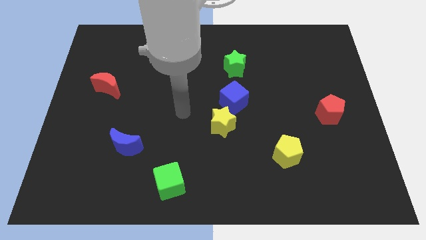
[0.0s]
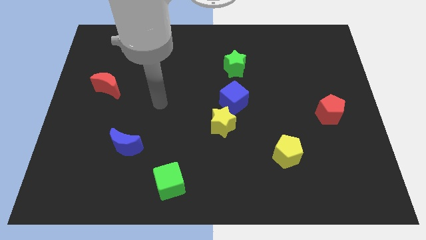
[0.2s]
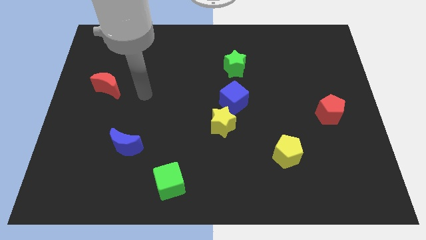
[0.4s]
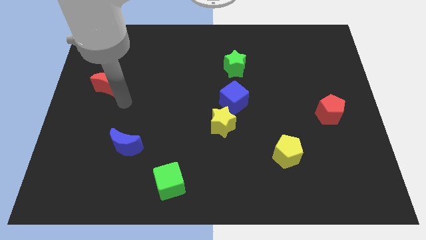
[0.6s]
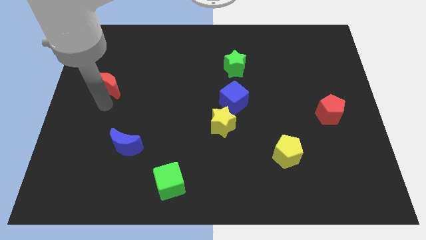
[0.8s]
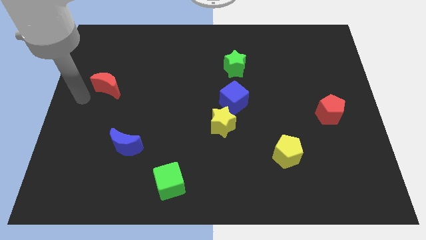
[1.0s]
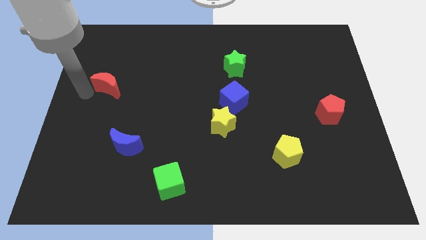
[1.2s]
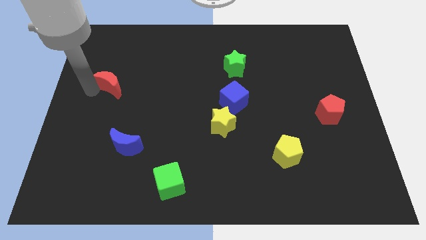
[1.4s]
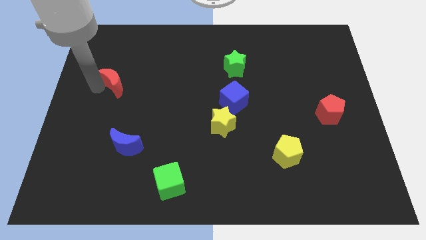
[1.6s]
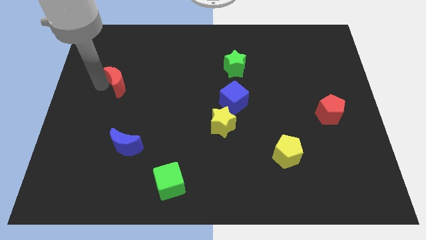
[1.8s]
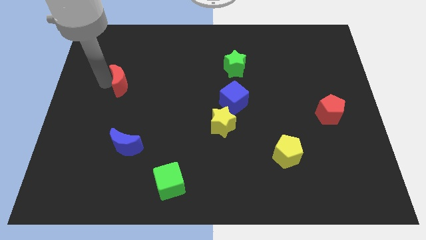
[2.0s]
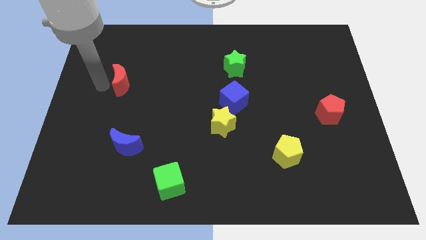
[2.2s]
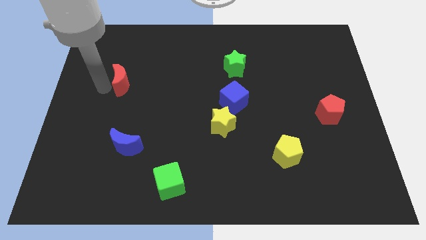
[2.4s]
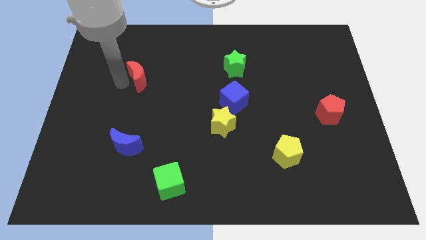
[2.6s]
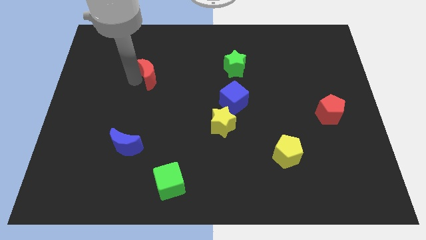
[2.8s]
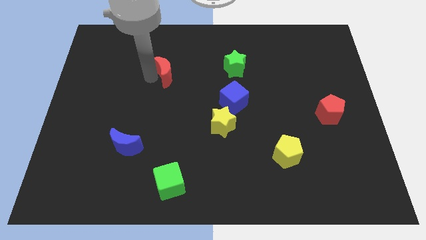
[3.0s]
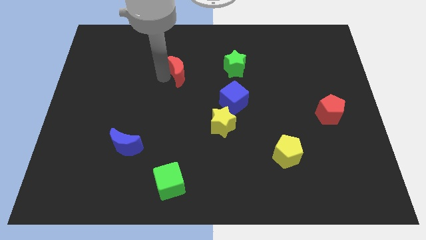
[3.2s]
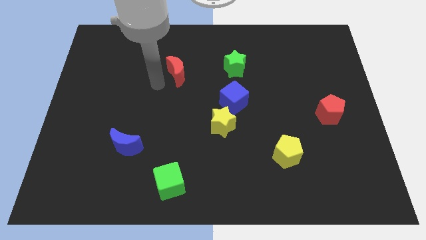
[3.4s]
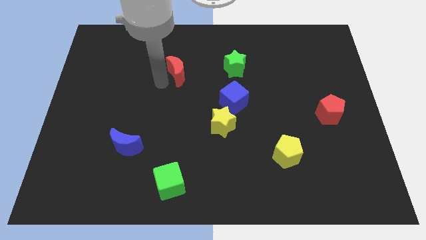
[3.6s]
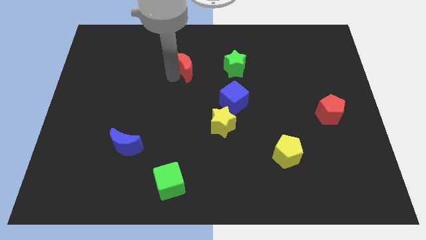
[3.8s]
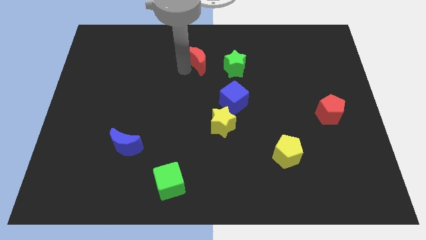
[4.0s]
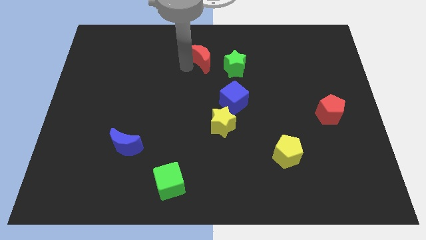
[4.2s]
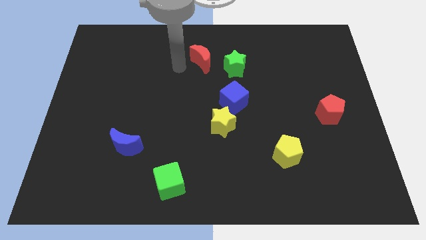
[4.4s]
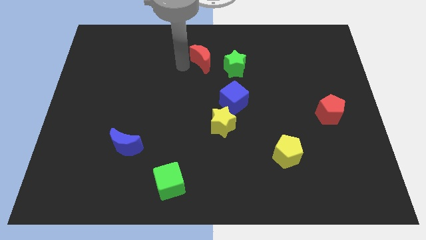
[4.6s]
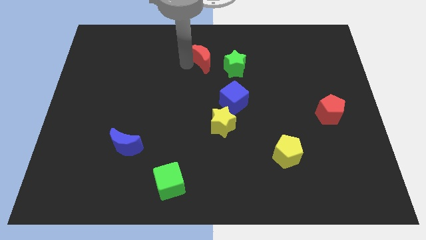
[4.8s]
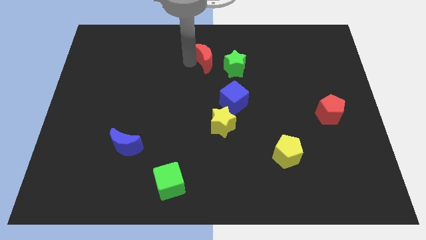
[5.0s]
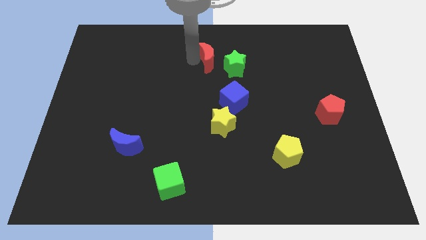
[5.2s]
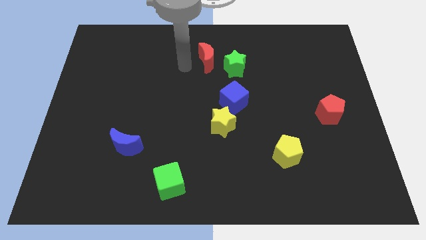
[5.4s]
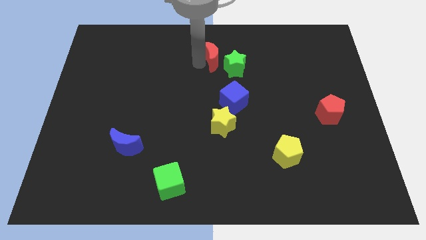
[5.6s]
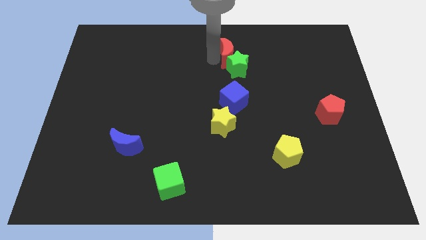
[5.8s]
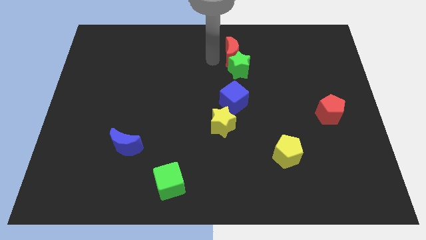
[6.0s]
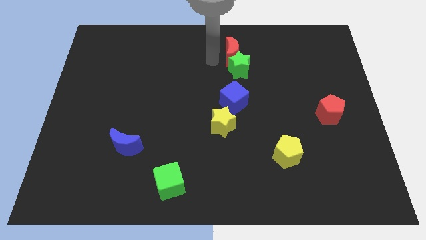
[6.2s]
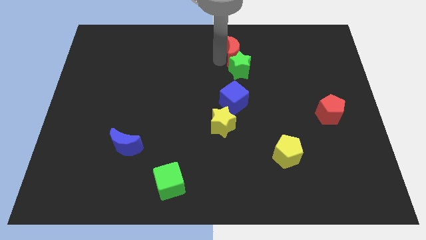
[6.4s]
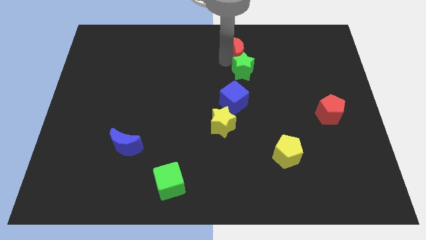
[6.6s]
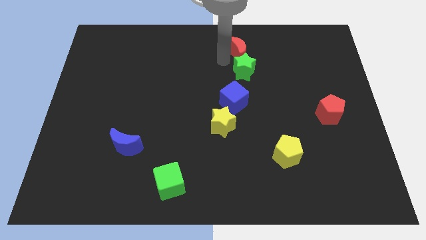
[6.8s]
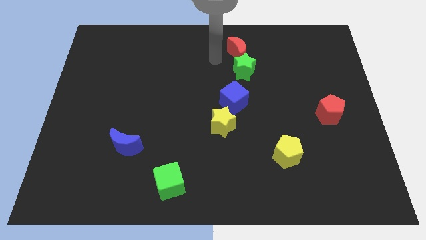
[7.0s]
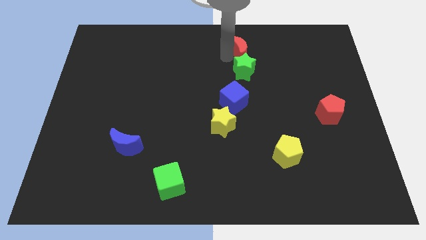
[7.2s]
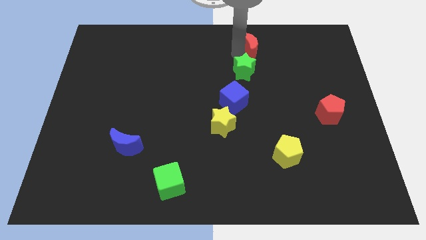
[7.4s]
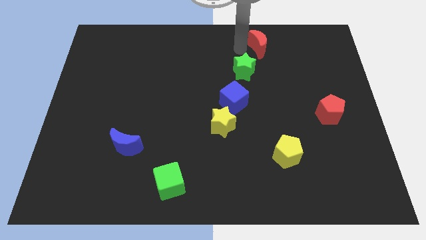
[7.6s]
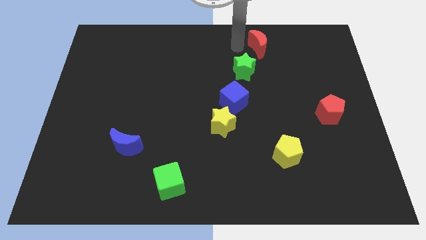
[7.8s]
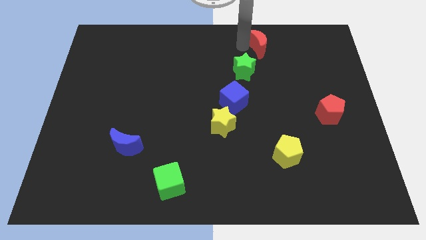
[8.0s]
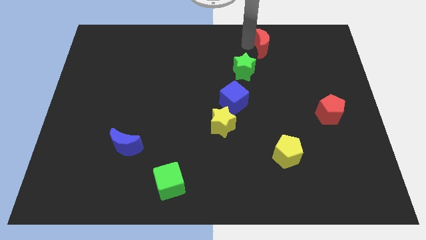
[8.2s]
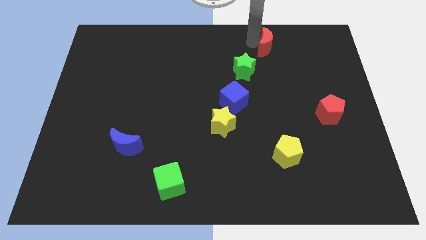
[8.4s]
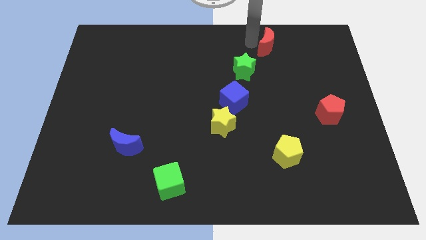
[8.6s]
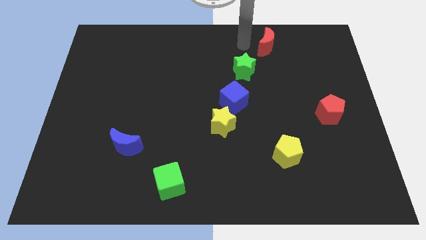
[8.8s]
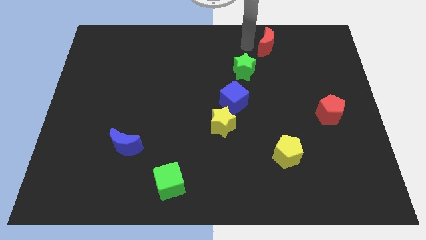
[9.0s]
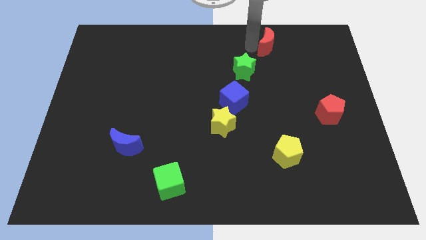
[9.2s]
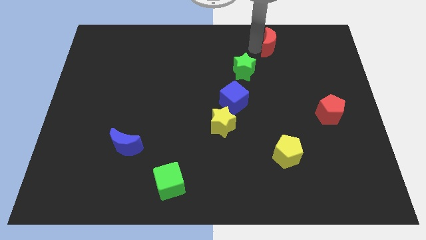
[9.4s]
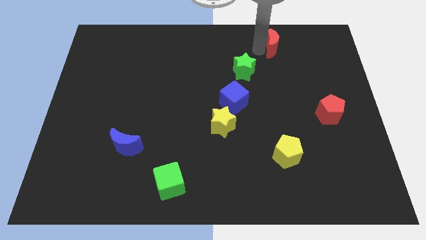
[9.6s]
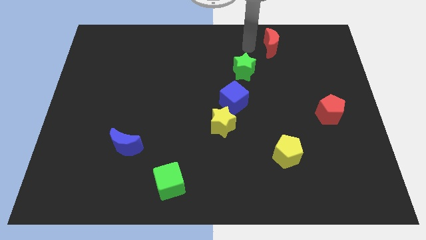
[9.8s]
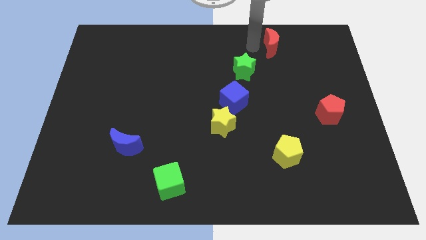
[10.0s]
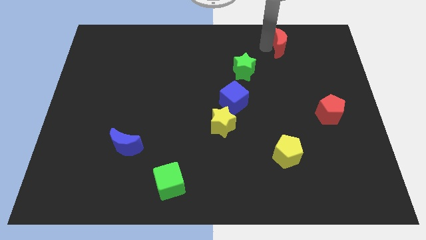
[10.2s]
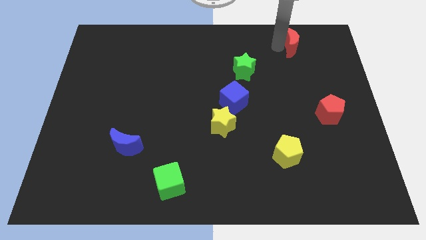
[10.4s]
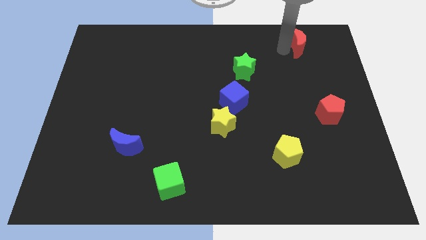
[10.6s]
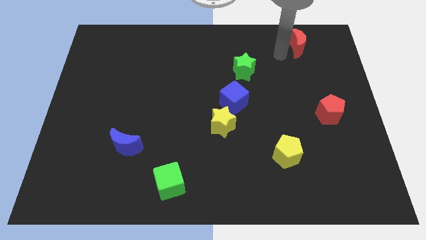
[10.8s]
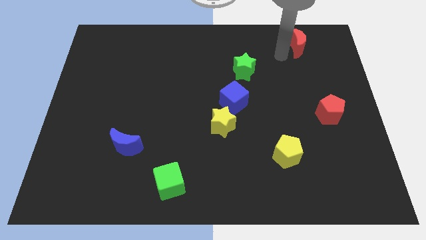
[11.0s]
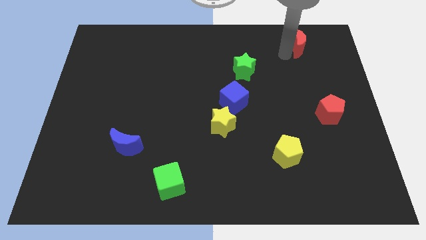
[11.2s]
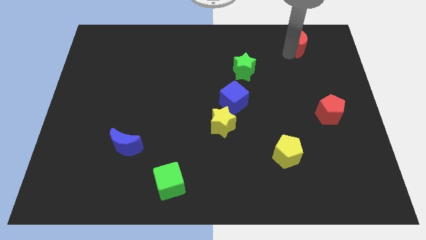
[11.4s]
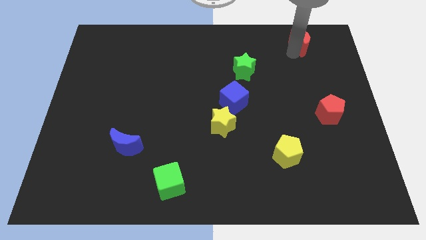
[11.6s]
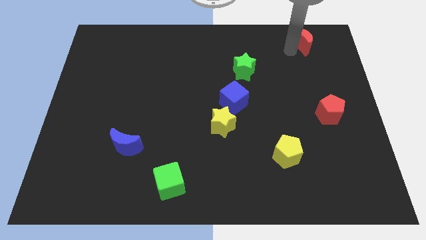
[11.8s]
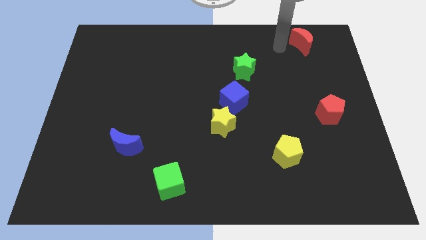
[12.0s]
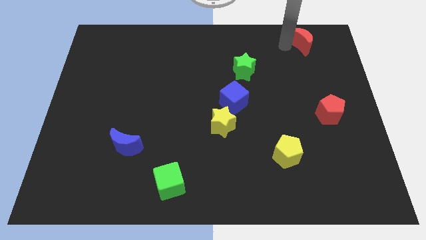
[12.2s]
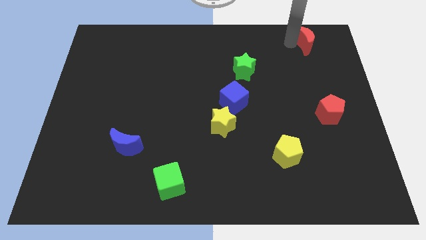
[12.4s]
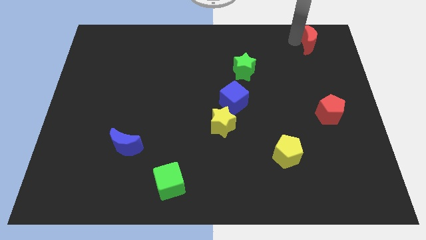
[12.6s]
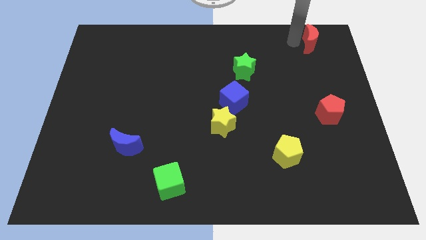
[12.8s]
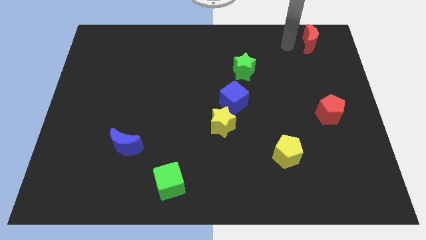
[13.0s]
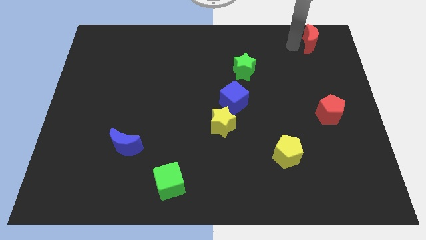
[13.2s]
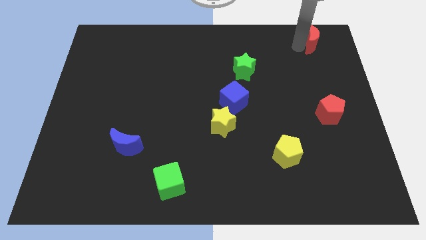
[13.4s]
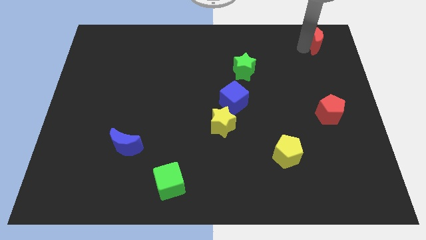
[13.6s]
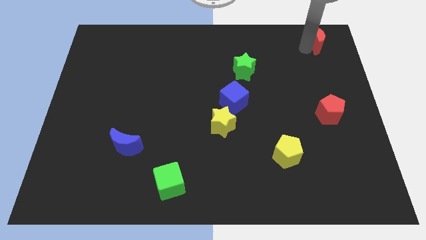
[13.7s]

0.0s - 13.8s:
put the red moon to the top right of the board
